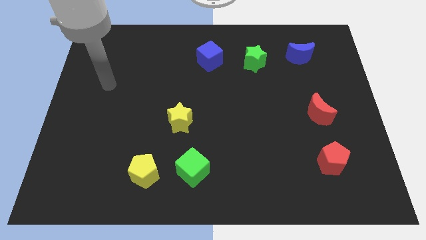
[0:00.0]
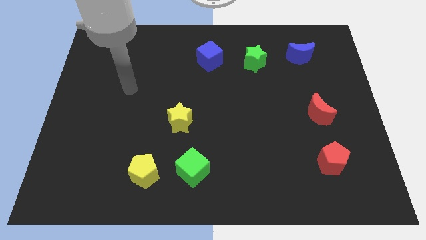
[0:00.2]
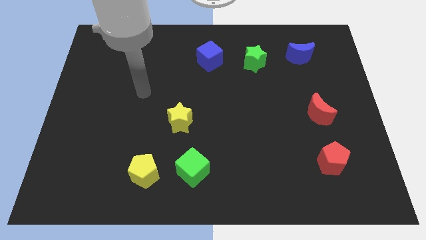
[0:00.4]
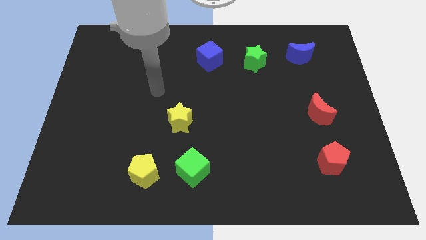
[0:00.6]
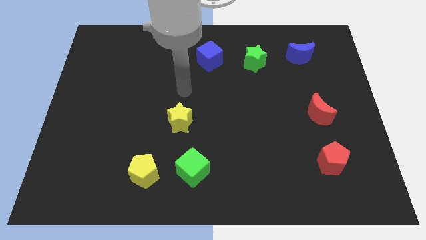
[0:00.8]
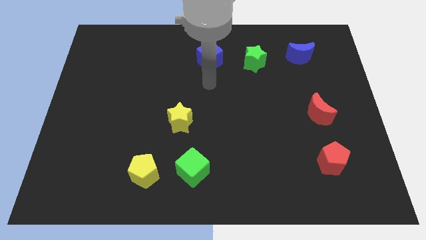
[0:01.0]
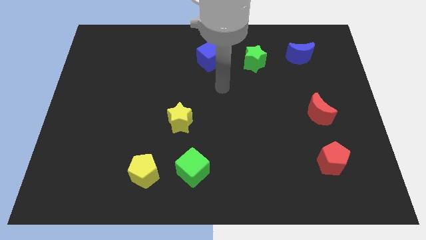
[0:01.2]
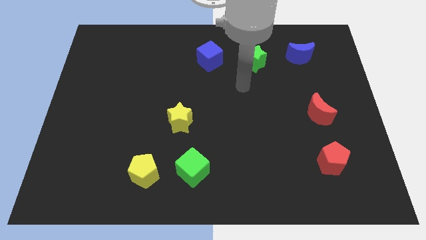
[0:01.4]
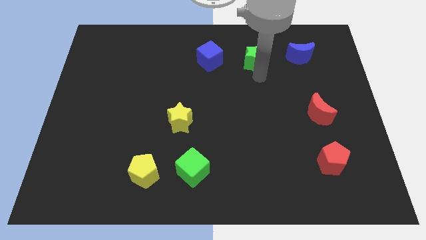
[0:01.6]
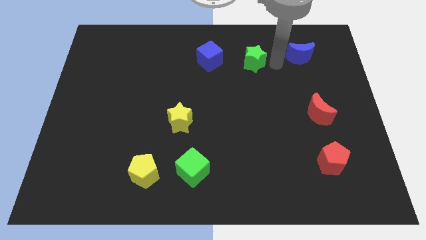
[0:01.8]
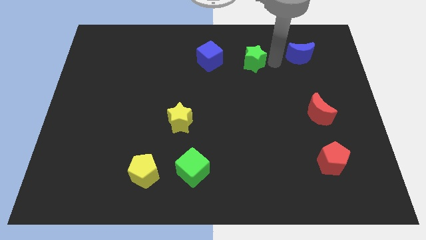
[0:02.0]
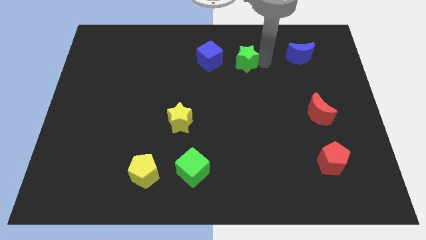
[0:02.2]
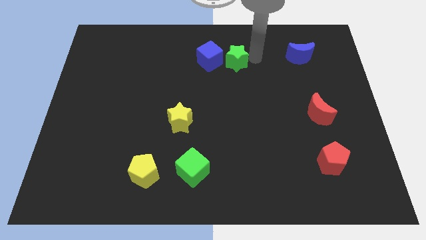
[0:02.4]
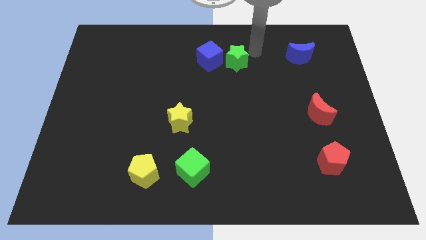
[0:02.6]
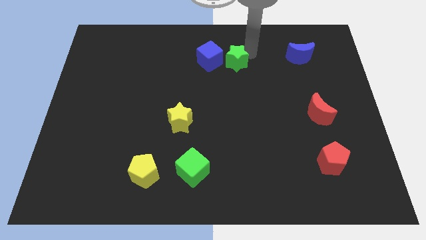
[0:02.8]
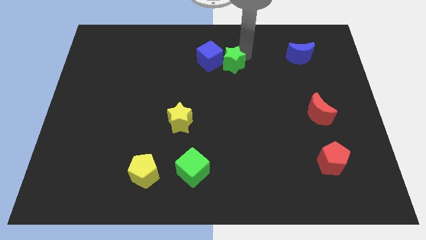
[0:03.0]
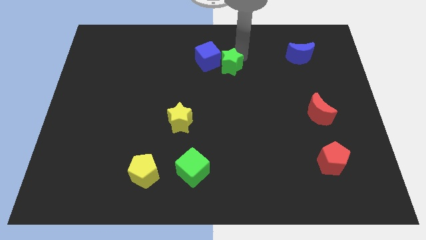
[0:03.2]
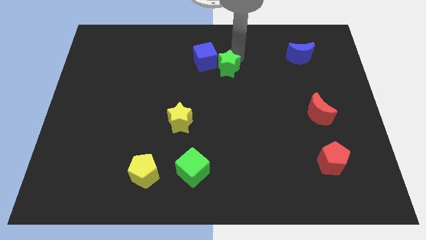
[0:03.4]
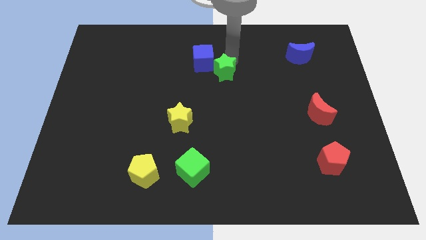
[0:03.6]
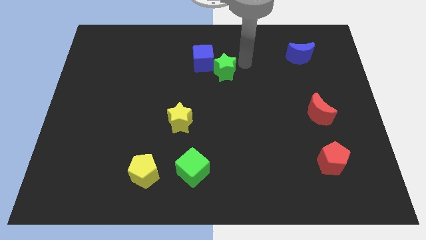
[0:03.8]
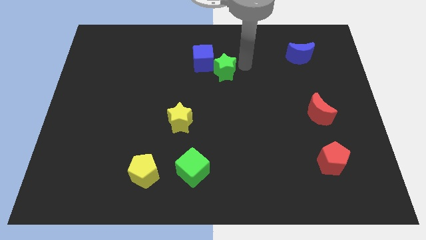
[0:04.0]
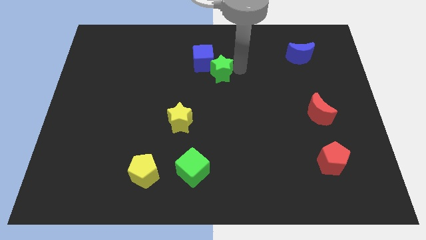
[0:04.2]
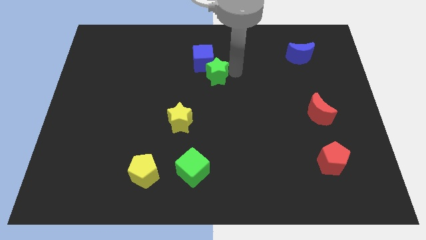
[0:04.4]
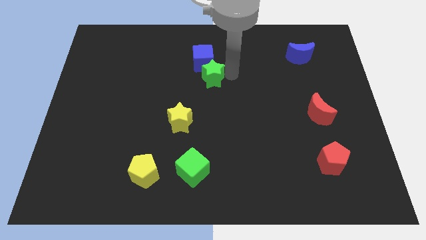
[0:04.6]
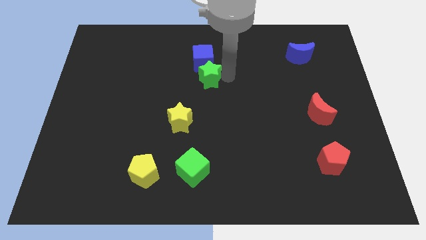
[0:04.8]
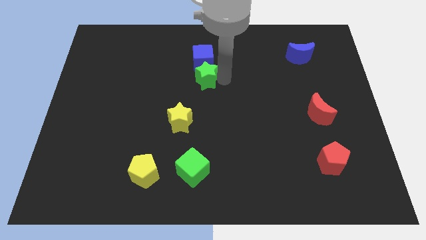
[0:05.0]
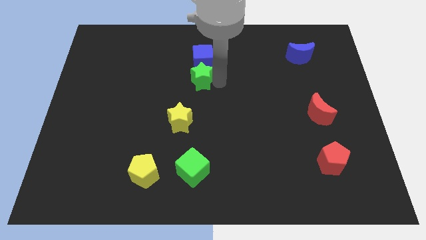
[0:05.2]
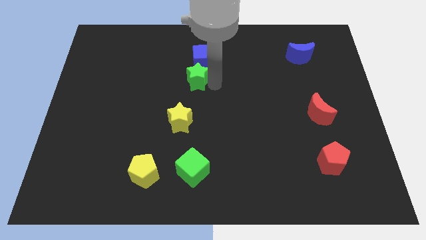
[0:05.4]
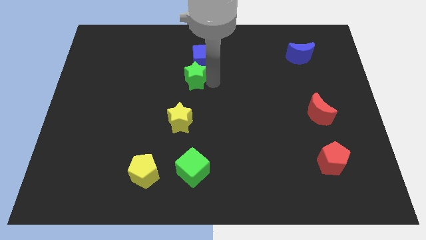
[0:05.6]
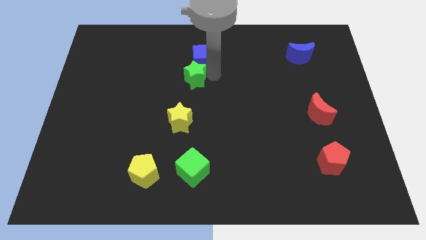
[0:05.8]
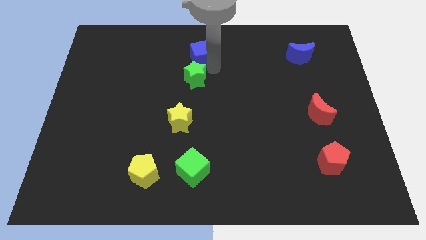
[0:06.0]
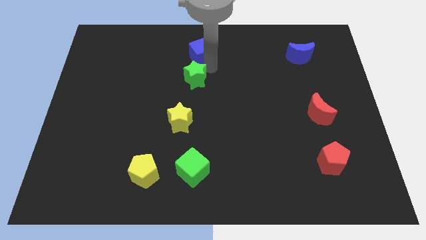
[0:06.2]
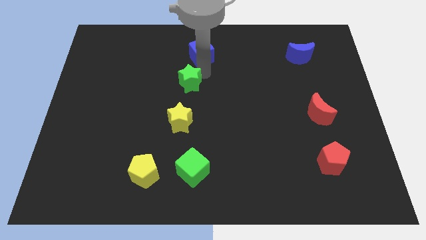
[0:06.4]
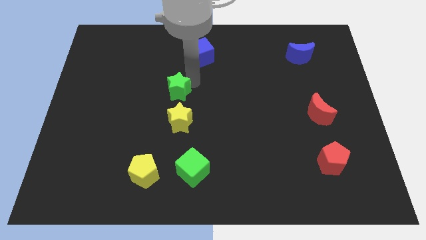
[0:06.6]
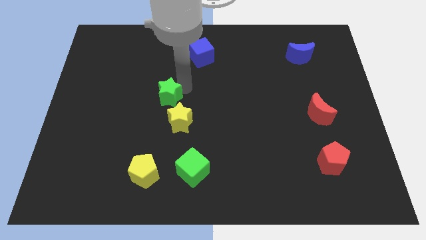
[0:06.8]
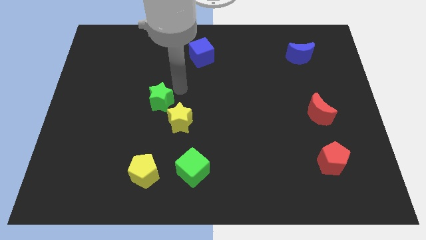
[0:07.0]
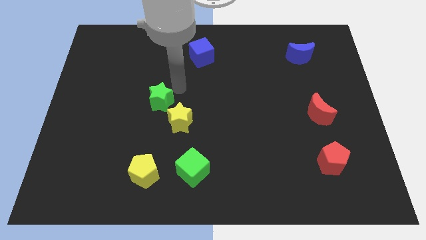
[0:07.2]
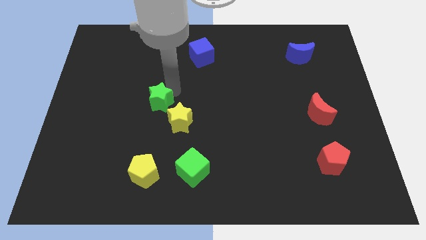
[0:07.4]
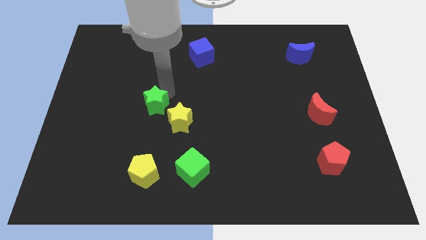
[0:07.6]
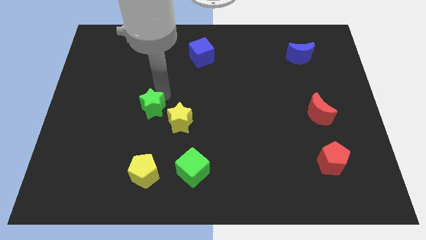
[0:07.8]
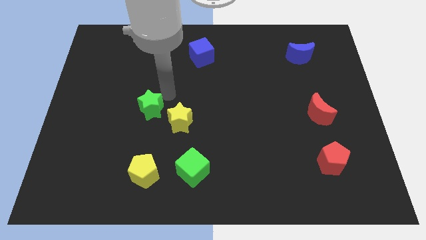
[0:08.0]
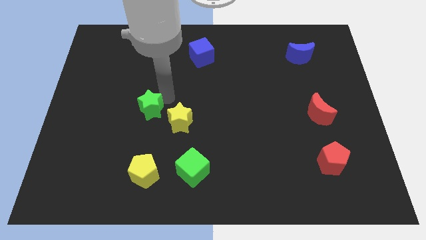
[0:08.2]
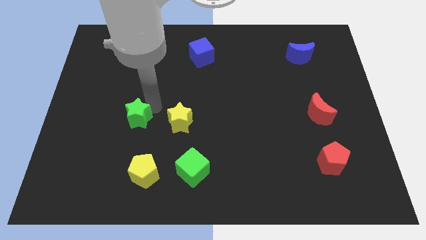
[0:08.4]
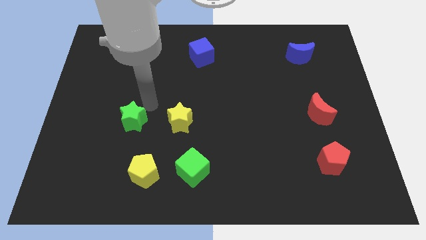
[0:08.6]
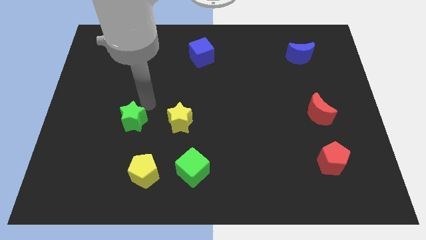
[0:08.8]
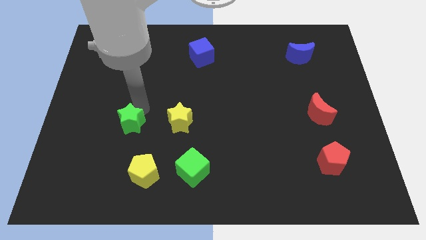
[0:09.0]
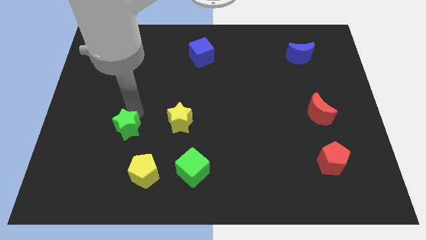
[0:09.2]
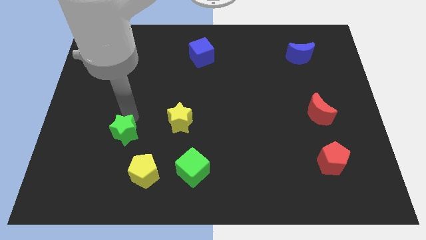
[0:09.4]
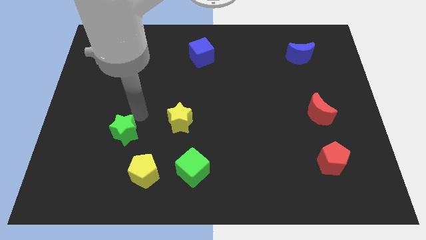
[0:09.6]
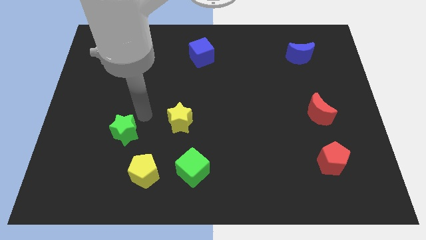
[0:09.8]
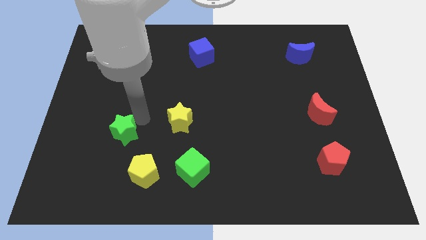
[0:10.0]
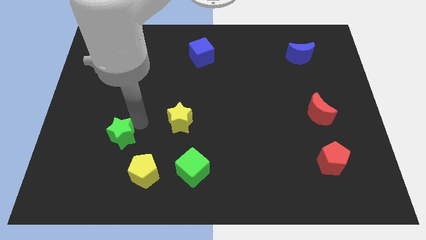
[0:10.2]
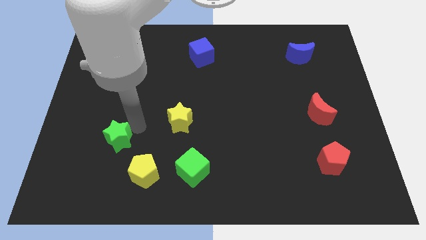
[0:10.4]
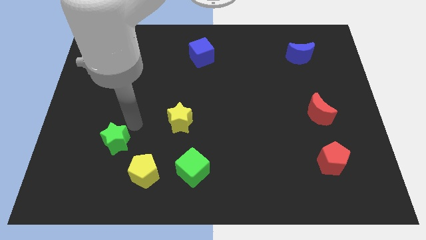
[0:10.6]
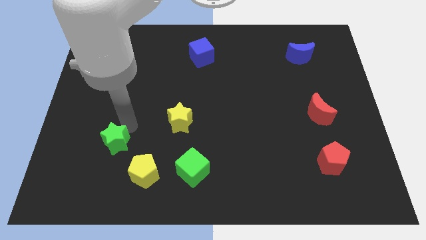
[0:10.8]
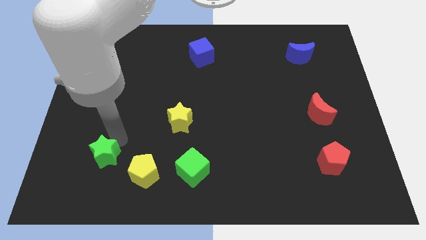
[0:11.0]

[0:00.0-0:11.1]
slide the green star left of the yellow pentagon
